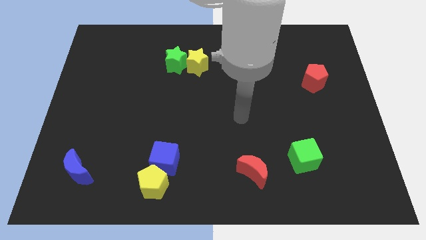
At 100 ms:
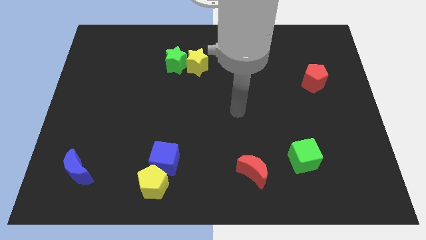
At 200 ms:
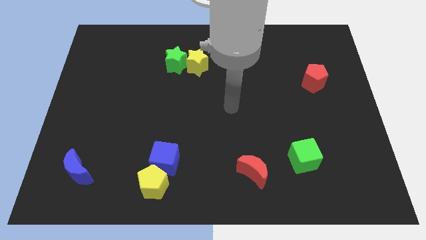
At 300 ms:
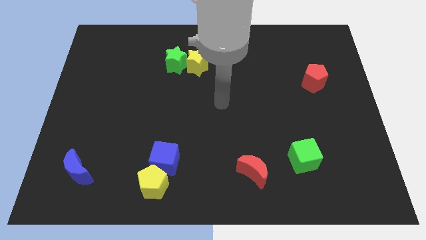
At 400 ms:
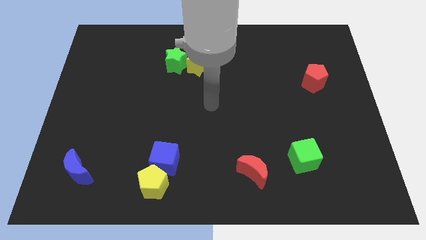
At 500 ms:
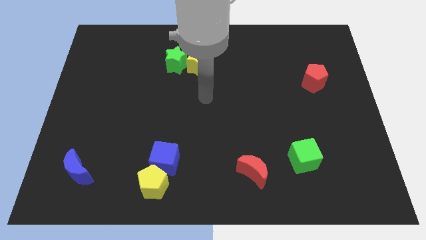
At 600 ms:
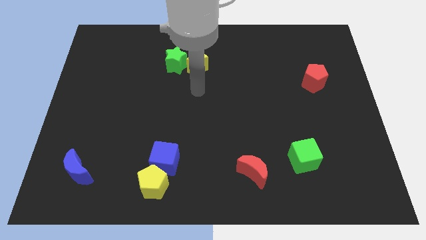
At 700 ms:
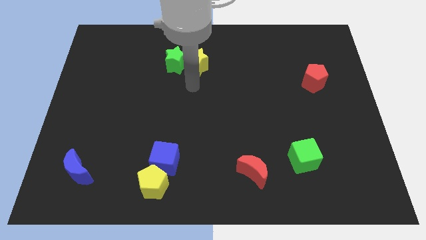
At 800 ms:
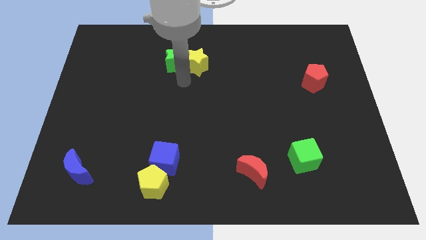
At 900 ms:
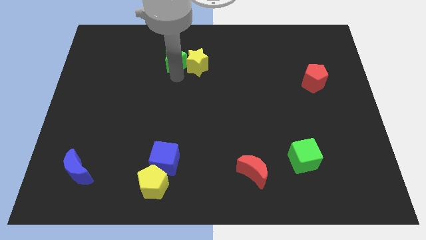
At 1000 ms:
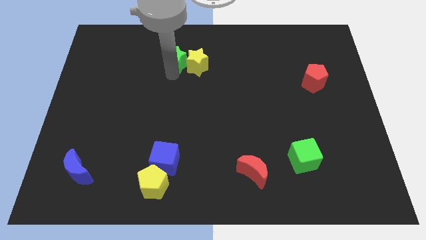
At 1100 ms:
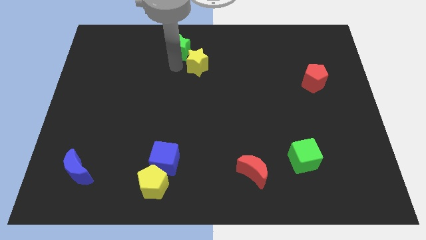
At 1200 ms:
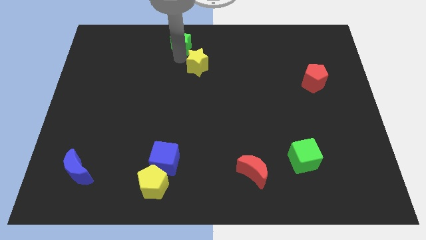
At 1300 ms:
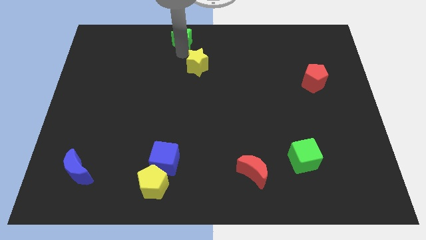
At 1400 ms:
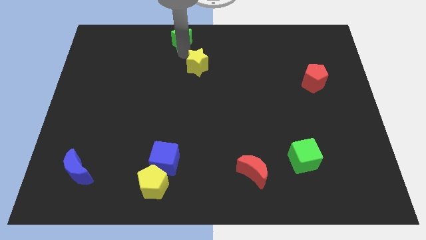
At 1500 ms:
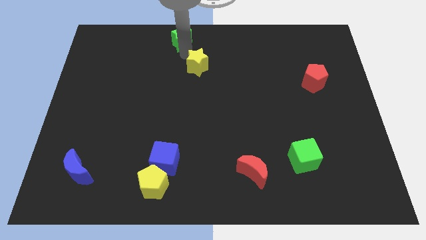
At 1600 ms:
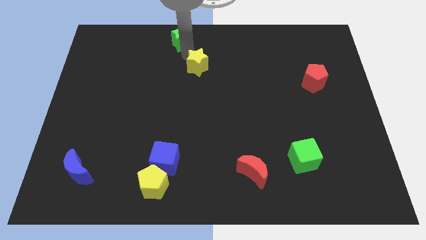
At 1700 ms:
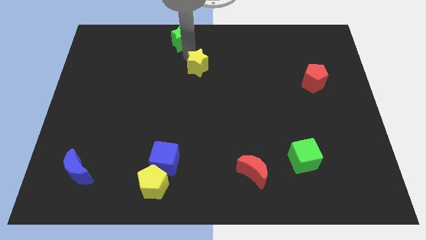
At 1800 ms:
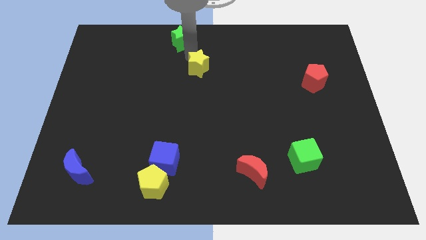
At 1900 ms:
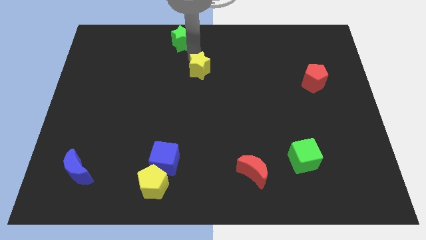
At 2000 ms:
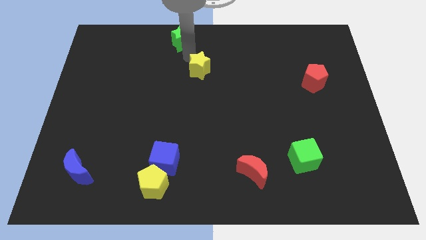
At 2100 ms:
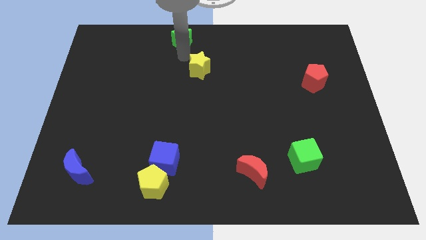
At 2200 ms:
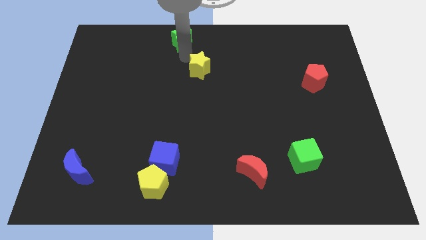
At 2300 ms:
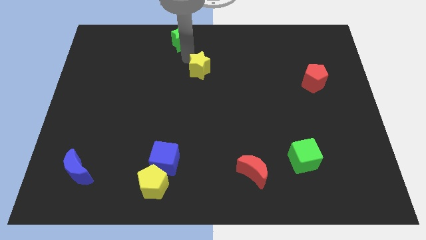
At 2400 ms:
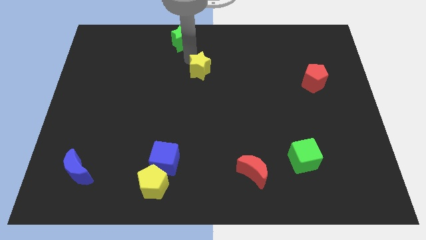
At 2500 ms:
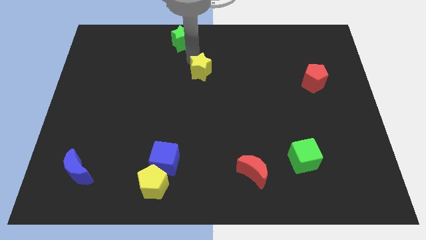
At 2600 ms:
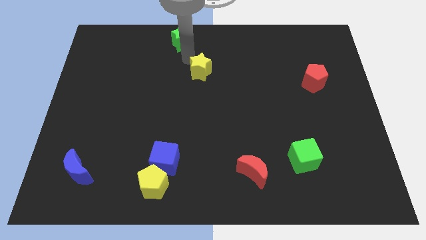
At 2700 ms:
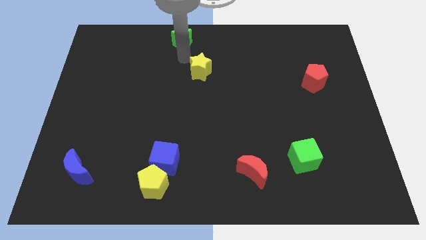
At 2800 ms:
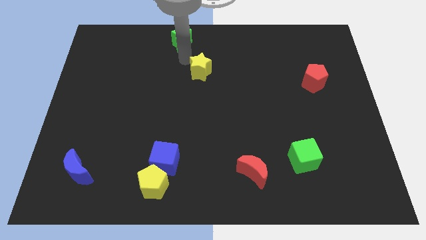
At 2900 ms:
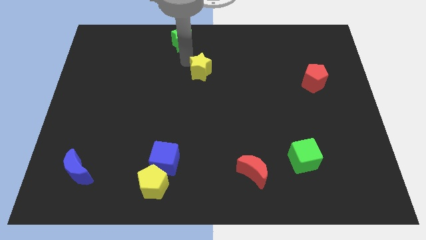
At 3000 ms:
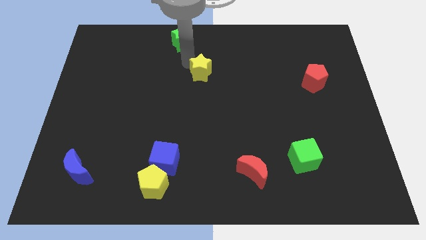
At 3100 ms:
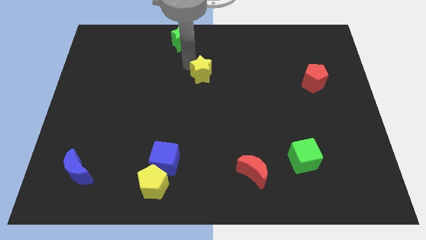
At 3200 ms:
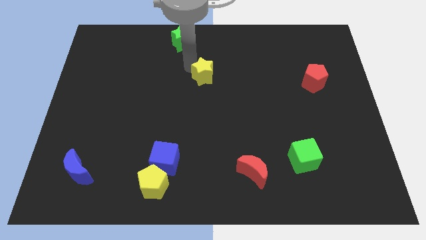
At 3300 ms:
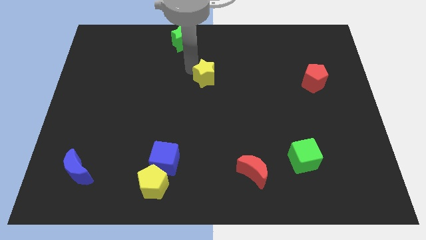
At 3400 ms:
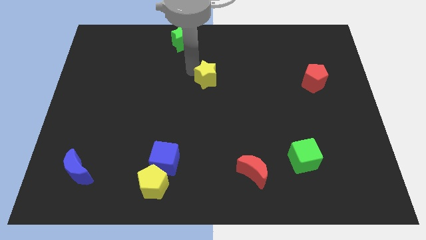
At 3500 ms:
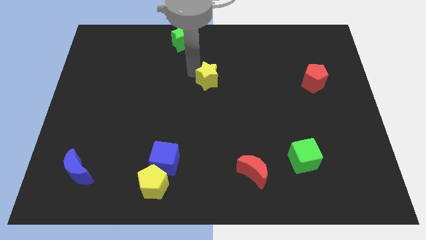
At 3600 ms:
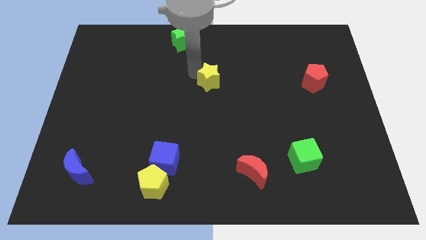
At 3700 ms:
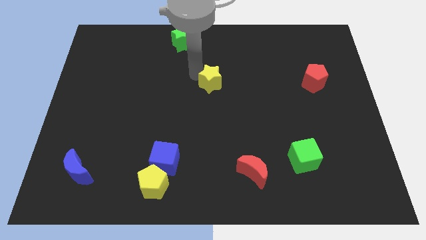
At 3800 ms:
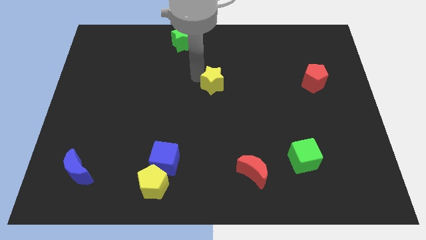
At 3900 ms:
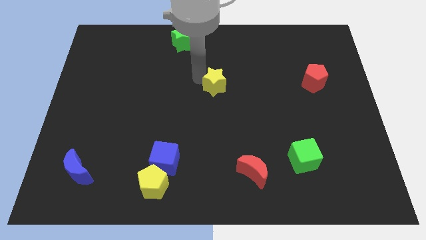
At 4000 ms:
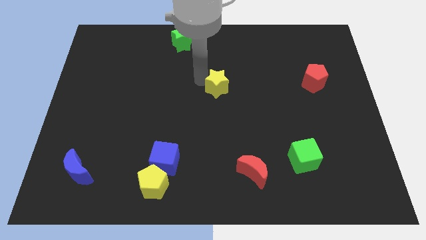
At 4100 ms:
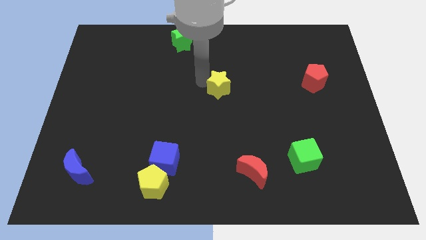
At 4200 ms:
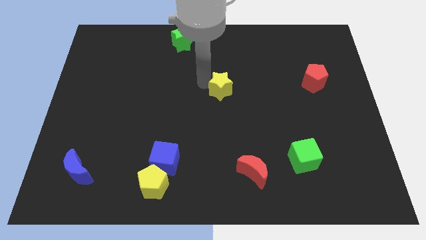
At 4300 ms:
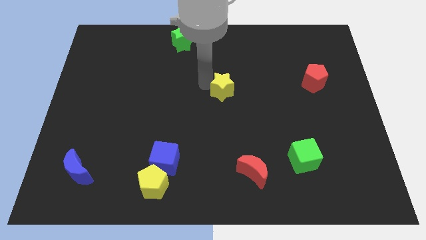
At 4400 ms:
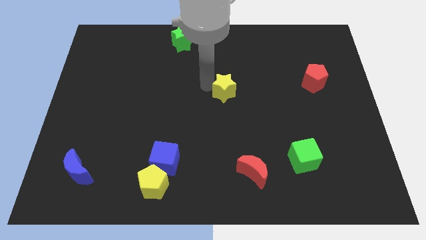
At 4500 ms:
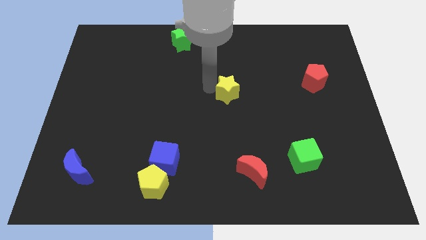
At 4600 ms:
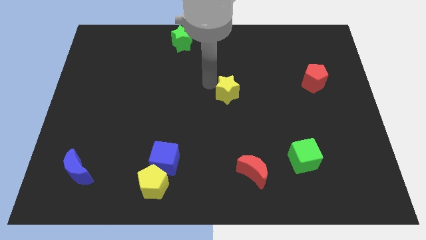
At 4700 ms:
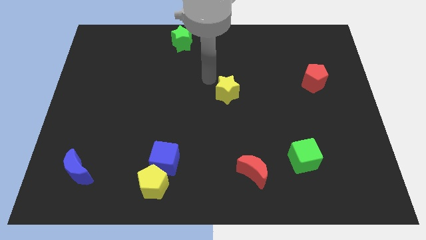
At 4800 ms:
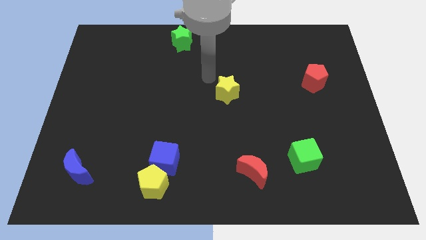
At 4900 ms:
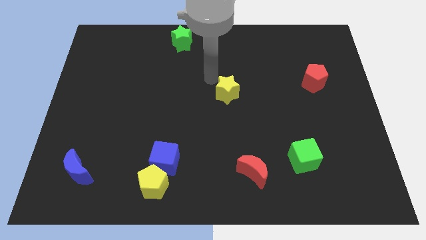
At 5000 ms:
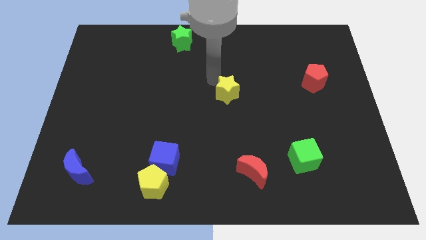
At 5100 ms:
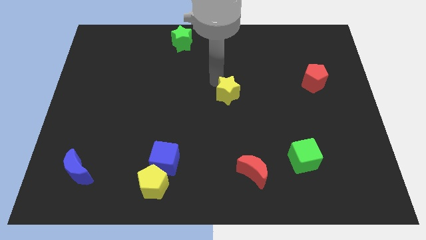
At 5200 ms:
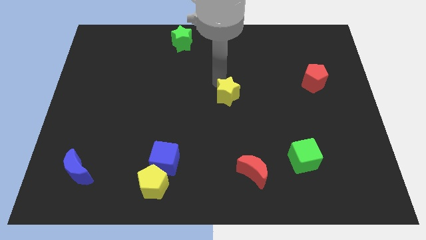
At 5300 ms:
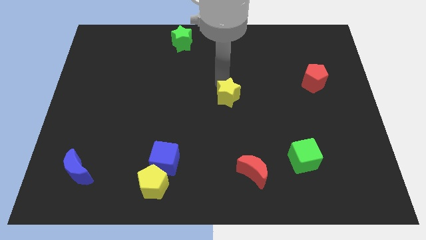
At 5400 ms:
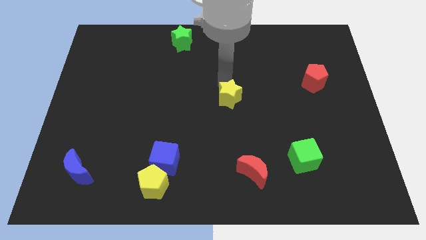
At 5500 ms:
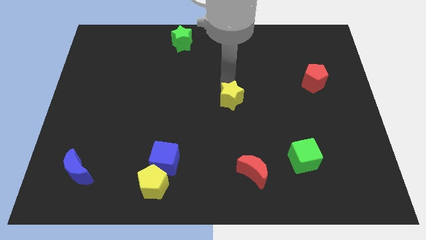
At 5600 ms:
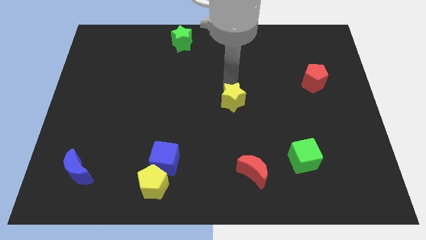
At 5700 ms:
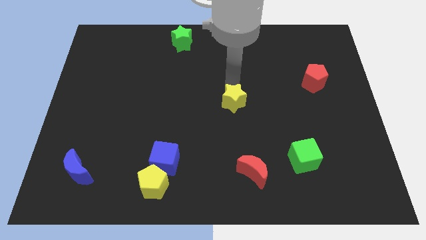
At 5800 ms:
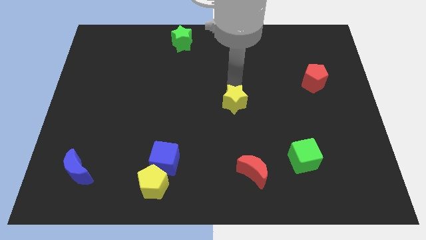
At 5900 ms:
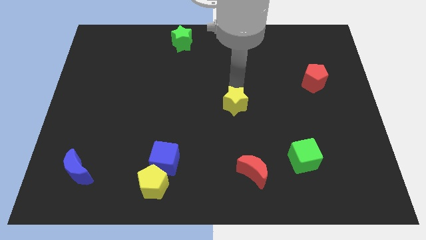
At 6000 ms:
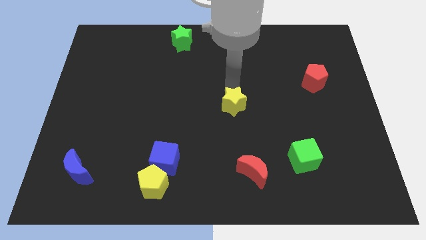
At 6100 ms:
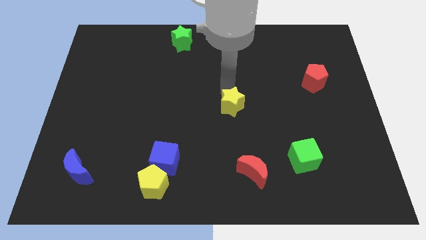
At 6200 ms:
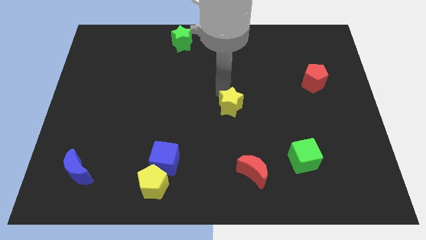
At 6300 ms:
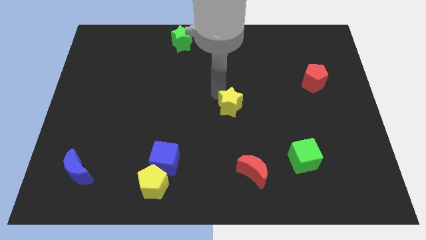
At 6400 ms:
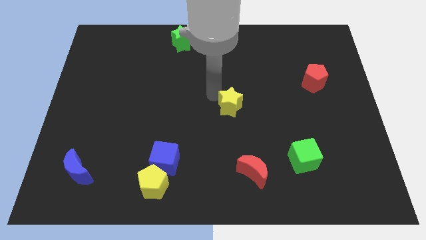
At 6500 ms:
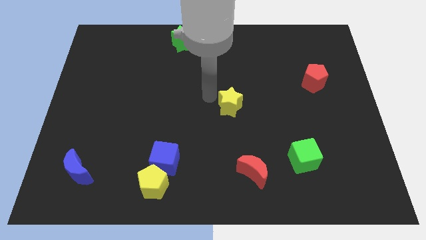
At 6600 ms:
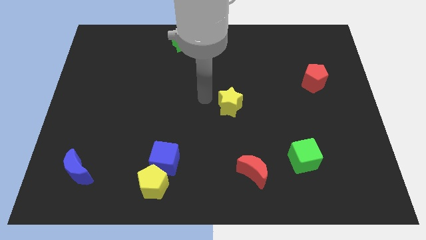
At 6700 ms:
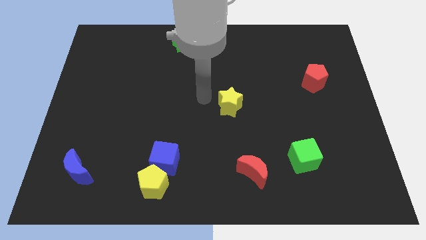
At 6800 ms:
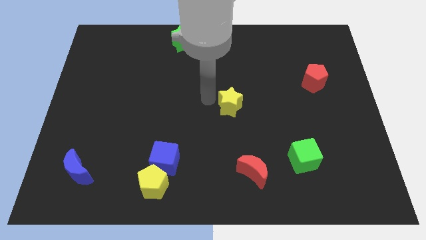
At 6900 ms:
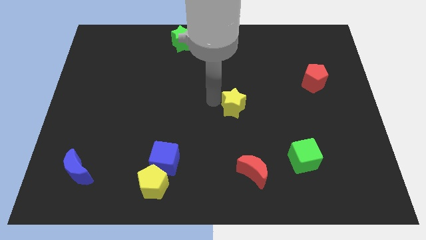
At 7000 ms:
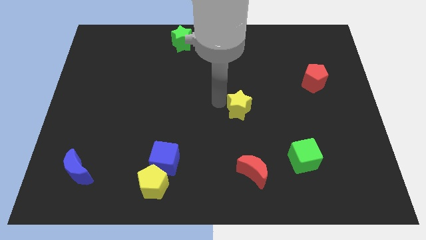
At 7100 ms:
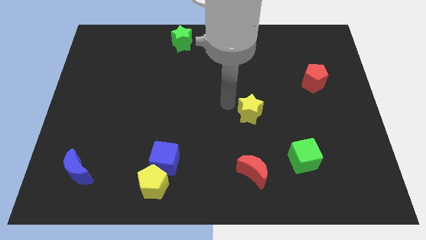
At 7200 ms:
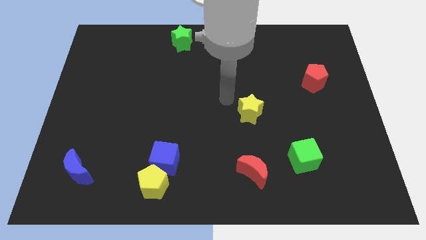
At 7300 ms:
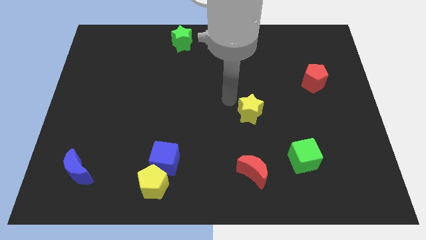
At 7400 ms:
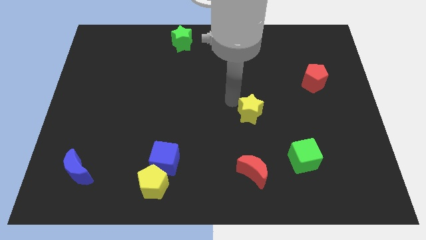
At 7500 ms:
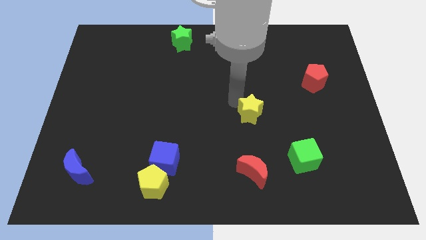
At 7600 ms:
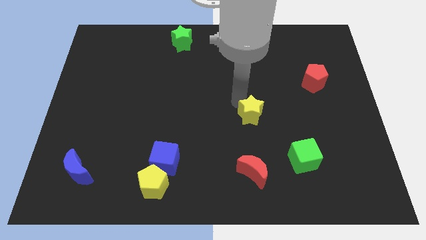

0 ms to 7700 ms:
slide the yellow star diagonally downwards and right

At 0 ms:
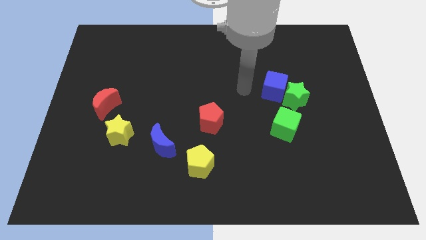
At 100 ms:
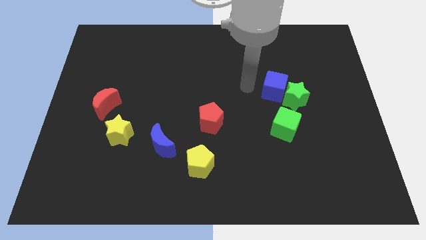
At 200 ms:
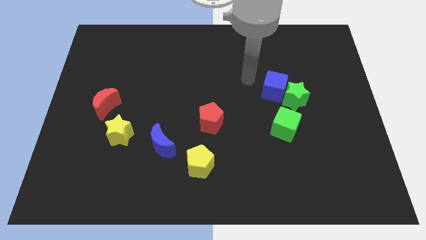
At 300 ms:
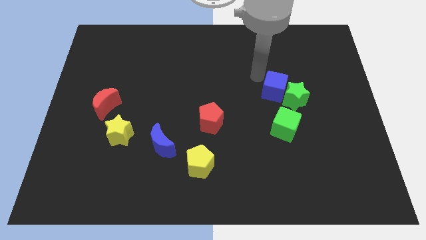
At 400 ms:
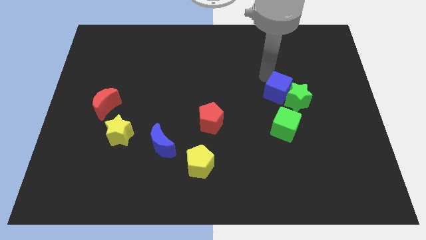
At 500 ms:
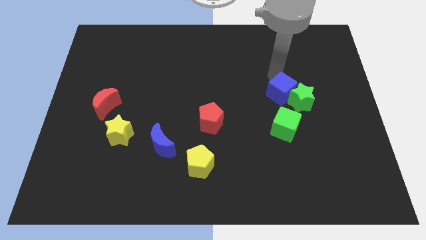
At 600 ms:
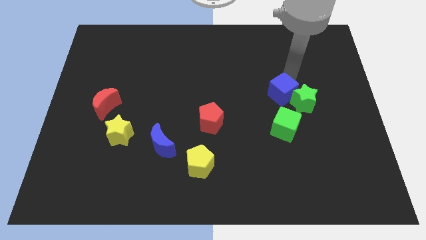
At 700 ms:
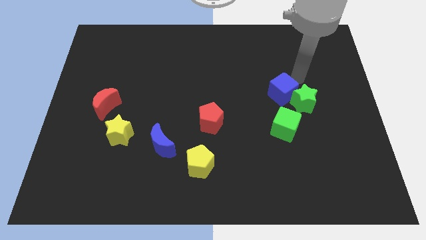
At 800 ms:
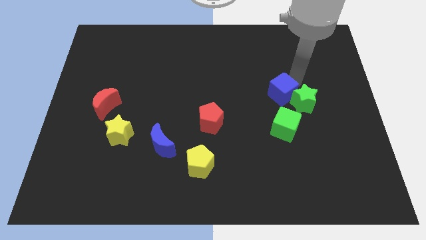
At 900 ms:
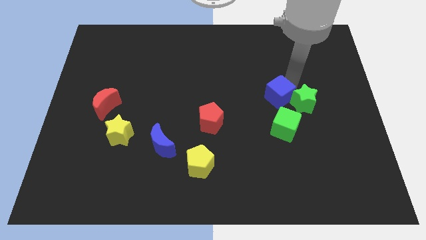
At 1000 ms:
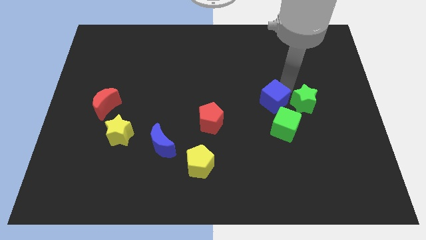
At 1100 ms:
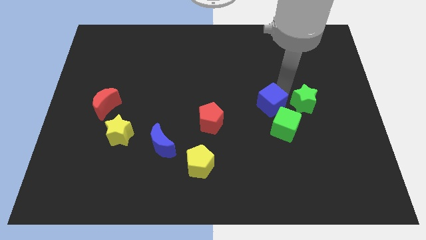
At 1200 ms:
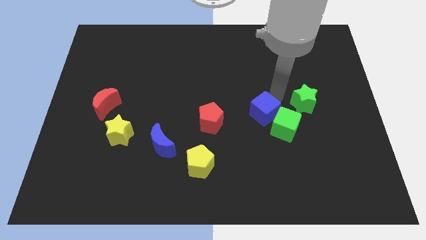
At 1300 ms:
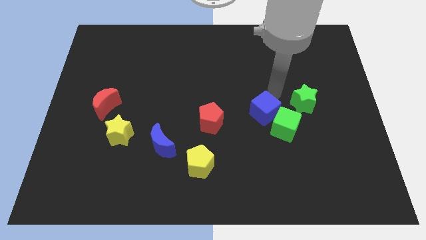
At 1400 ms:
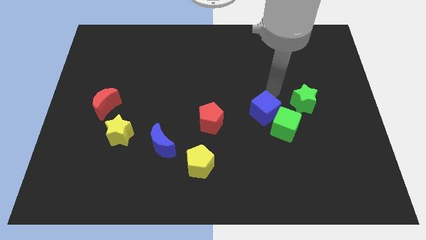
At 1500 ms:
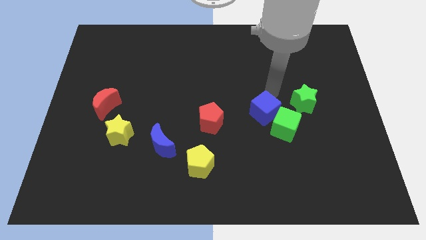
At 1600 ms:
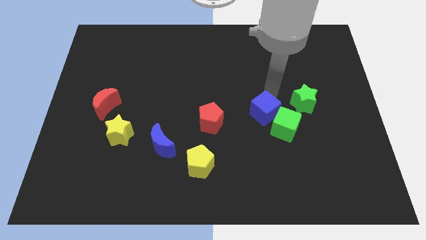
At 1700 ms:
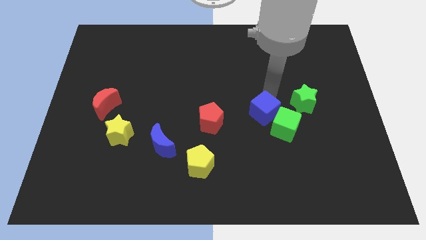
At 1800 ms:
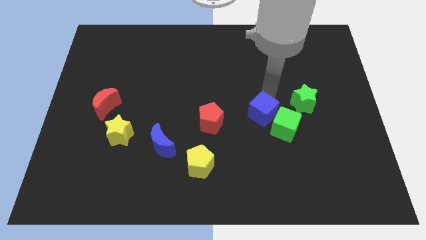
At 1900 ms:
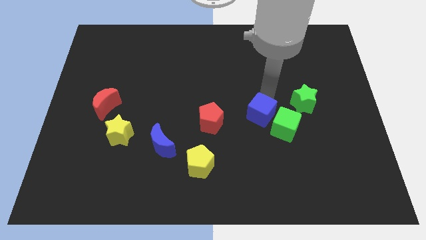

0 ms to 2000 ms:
slightly slide the blue cube down
